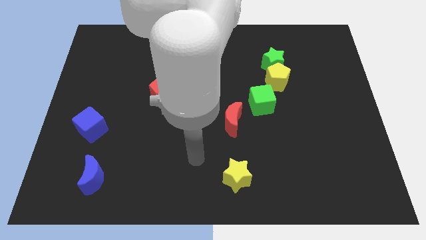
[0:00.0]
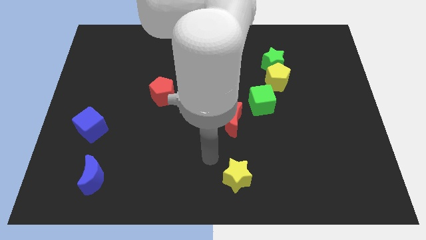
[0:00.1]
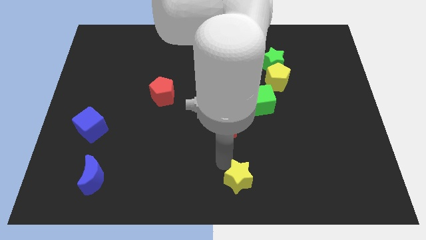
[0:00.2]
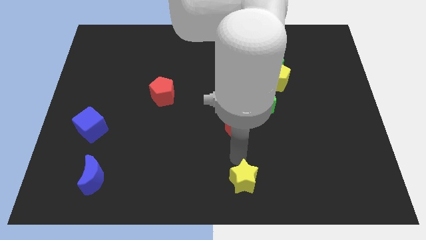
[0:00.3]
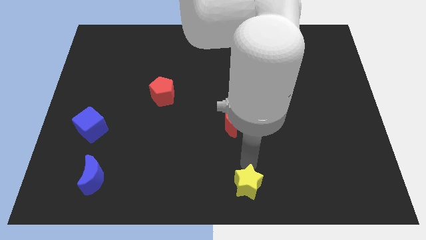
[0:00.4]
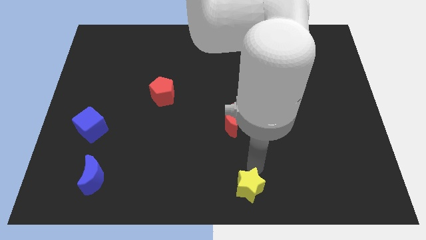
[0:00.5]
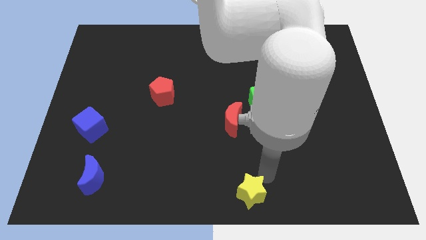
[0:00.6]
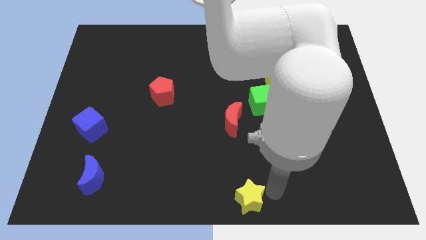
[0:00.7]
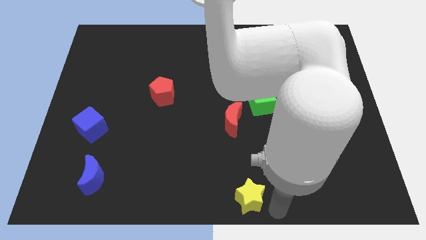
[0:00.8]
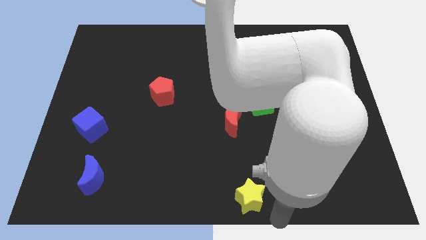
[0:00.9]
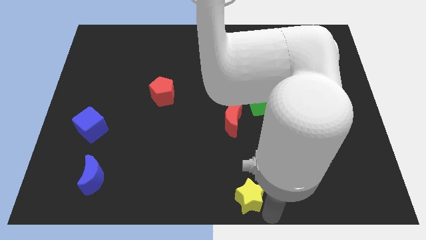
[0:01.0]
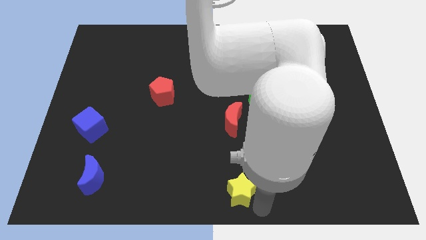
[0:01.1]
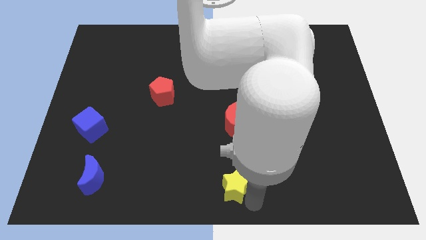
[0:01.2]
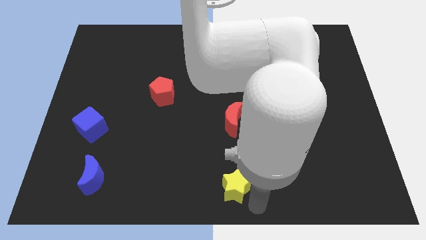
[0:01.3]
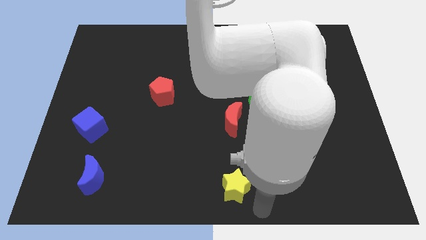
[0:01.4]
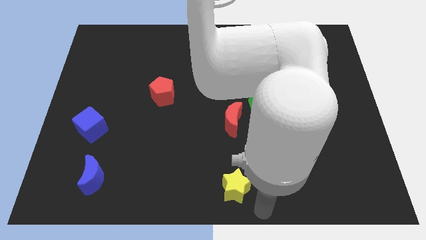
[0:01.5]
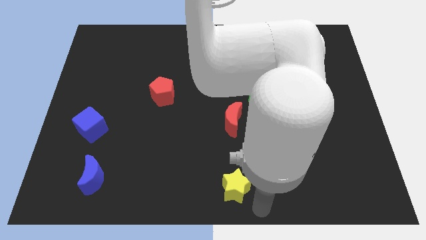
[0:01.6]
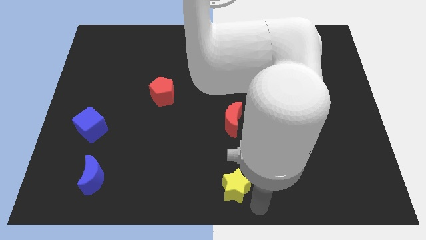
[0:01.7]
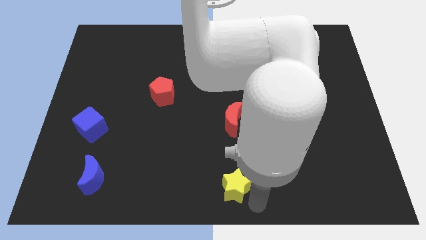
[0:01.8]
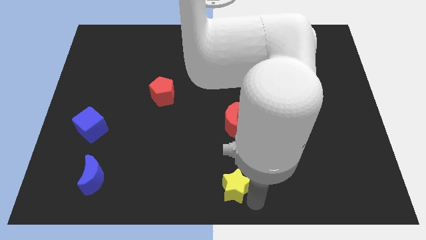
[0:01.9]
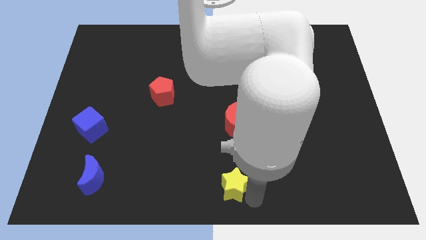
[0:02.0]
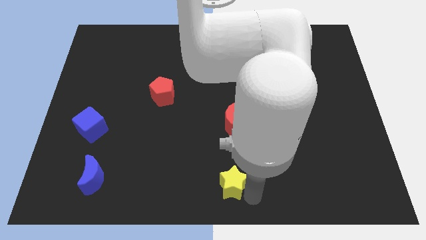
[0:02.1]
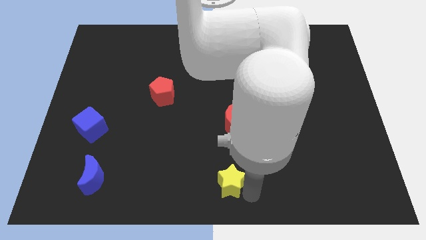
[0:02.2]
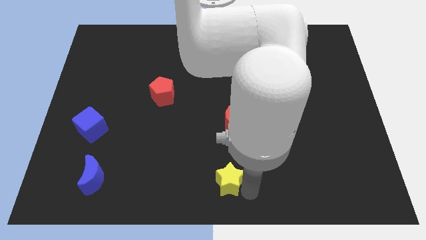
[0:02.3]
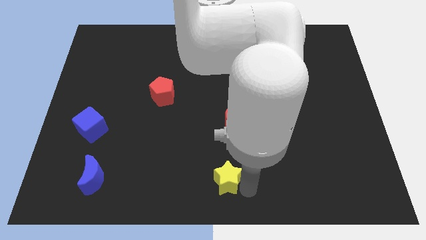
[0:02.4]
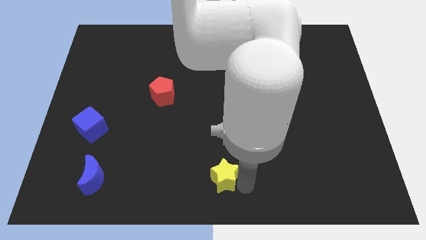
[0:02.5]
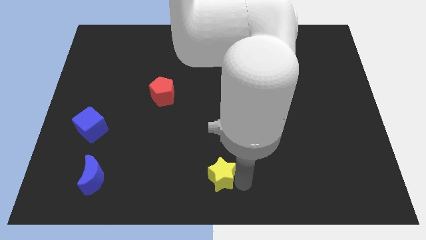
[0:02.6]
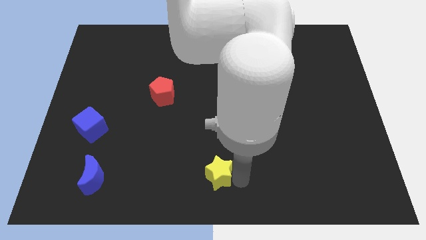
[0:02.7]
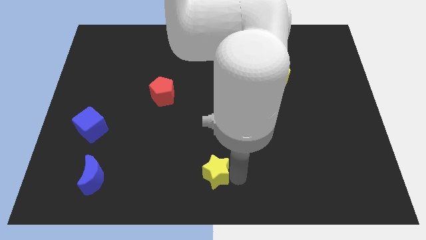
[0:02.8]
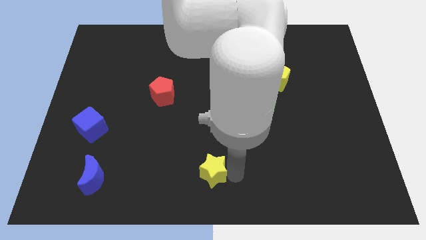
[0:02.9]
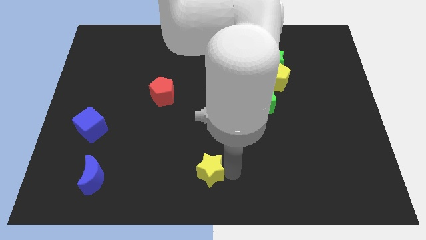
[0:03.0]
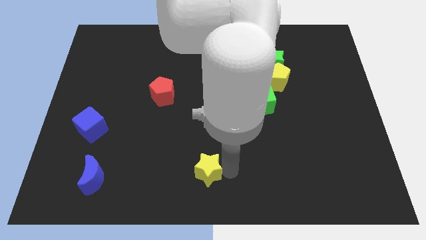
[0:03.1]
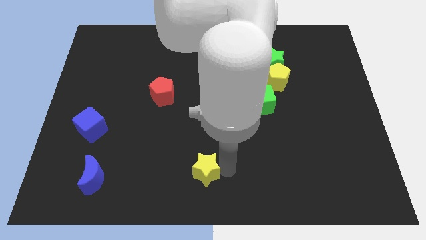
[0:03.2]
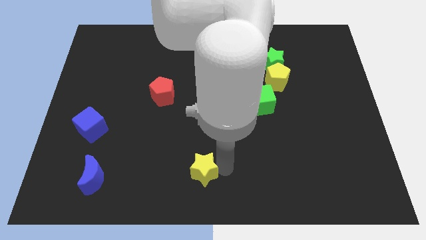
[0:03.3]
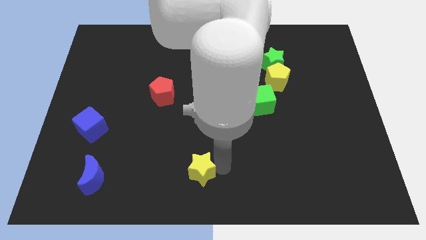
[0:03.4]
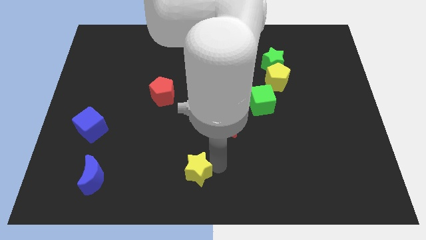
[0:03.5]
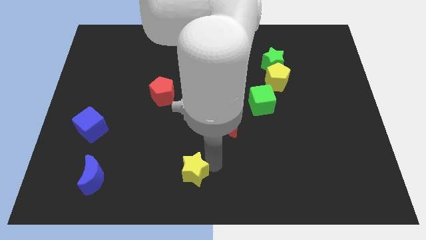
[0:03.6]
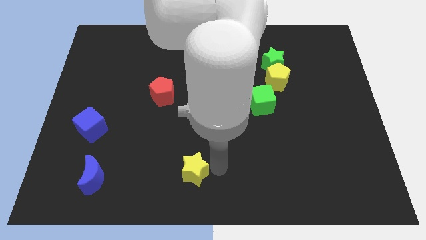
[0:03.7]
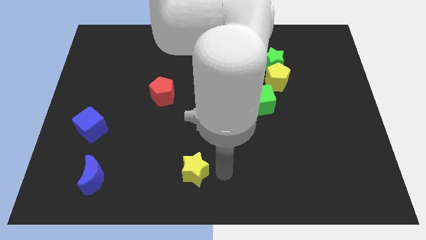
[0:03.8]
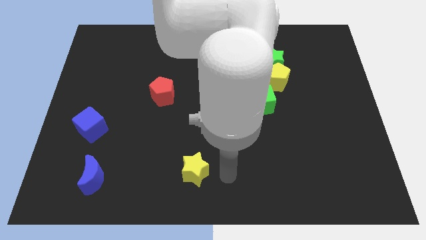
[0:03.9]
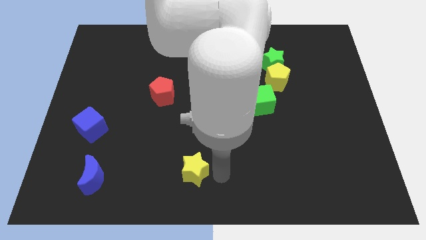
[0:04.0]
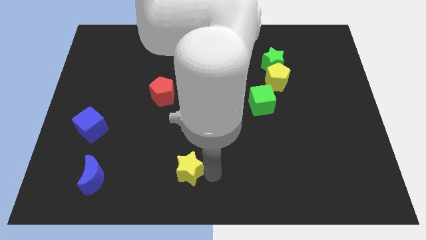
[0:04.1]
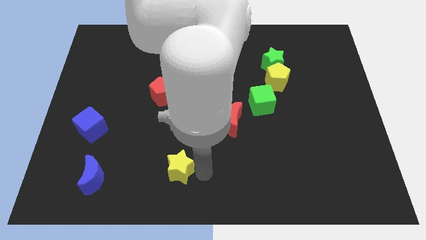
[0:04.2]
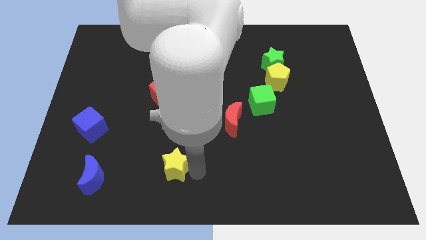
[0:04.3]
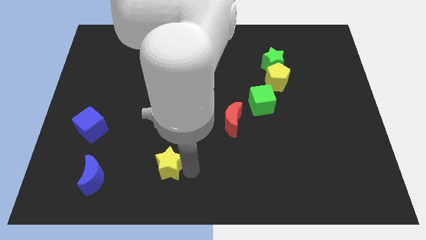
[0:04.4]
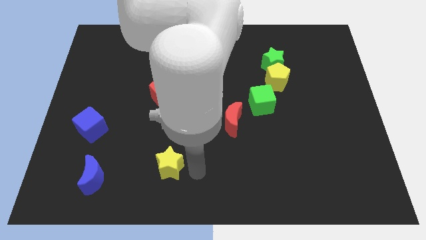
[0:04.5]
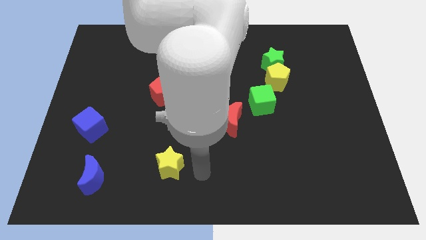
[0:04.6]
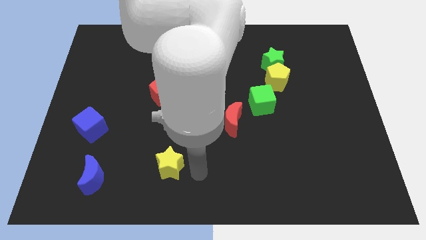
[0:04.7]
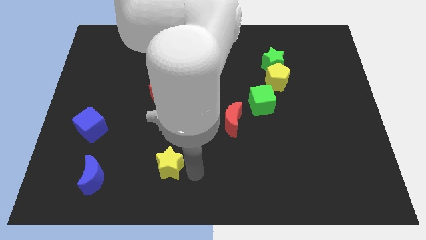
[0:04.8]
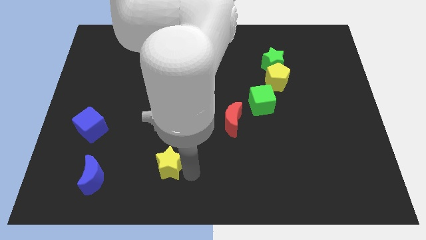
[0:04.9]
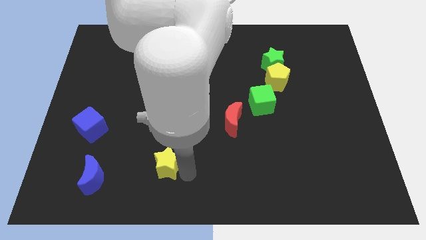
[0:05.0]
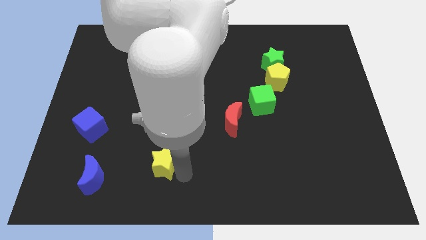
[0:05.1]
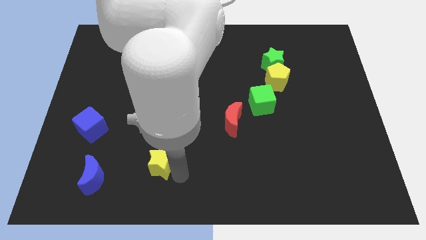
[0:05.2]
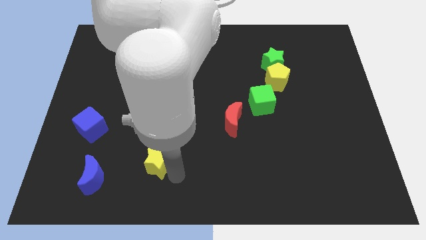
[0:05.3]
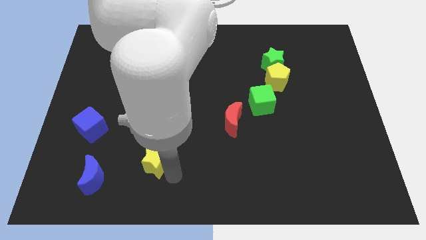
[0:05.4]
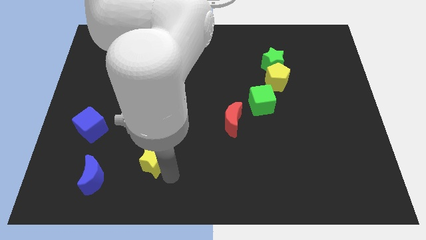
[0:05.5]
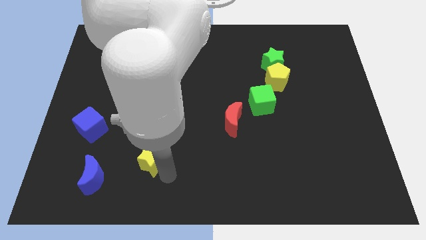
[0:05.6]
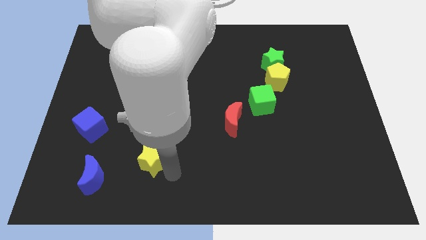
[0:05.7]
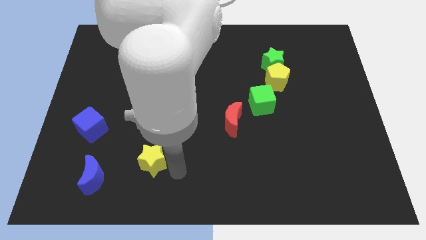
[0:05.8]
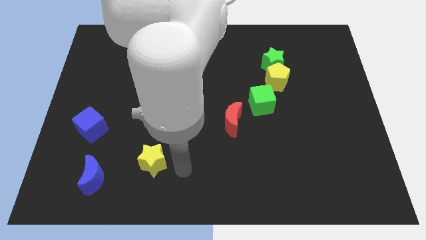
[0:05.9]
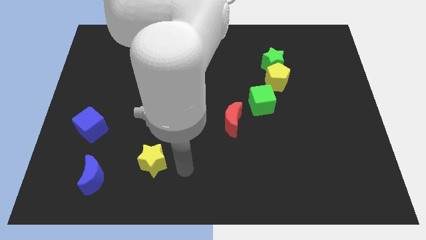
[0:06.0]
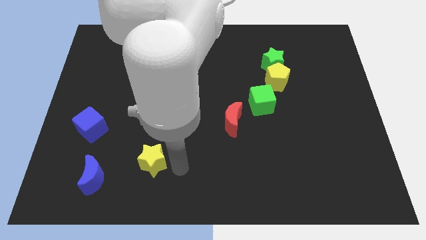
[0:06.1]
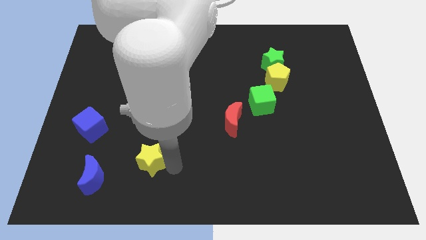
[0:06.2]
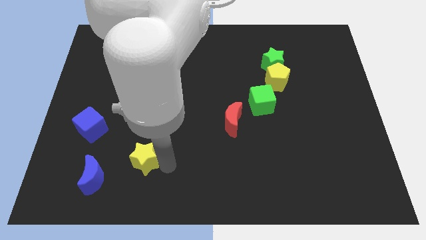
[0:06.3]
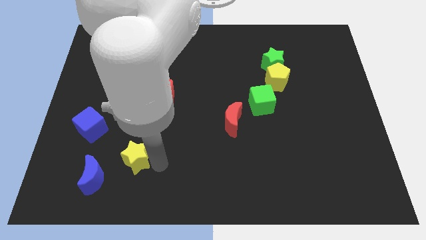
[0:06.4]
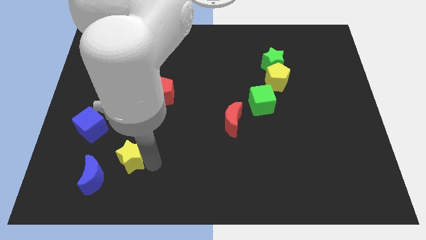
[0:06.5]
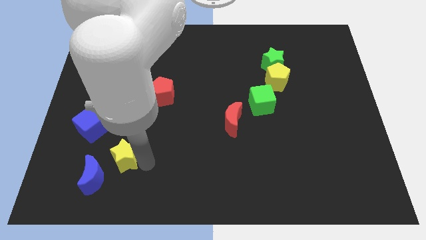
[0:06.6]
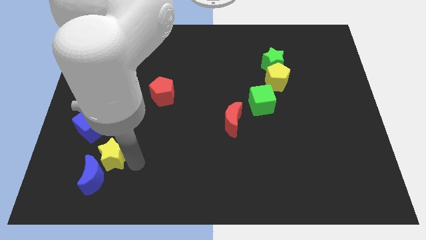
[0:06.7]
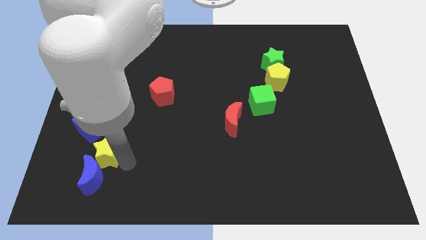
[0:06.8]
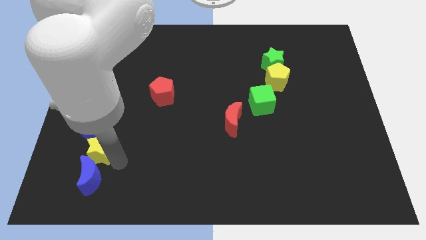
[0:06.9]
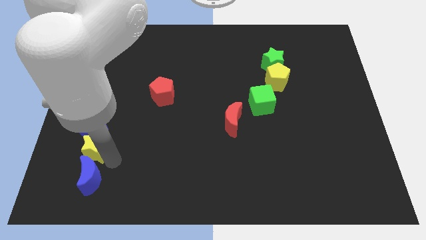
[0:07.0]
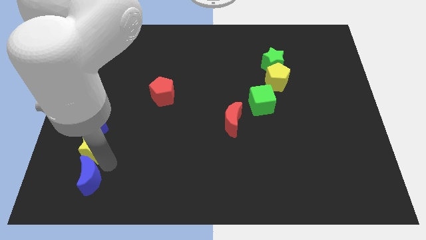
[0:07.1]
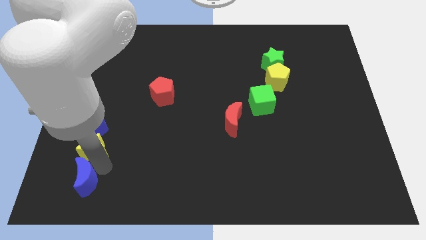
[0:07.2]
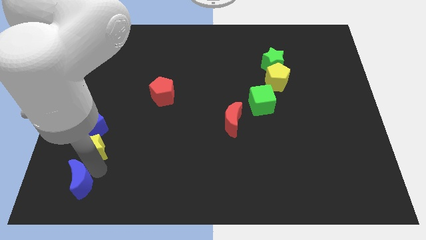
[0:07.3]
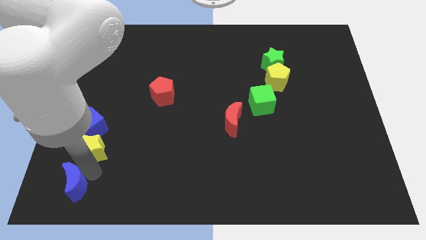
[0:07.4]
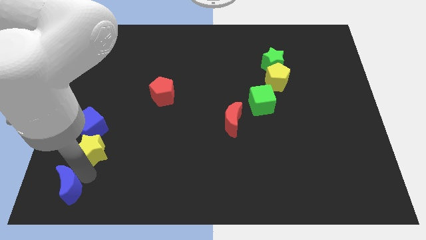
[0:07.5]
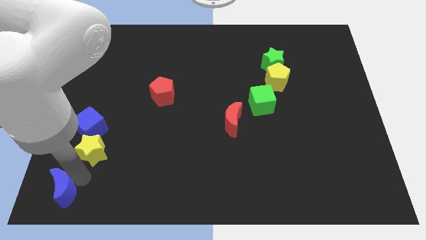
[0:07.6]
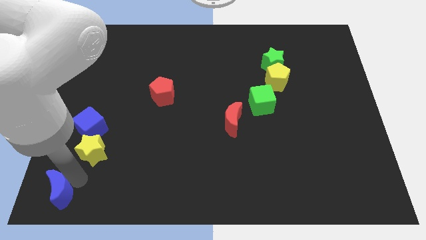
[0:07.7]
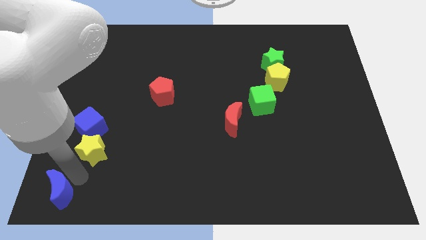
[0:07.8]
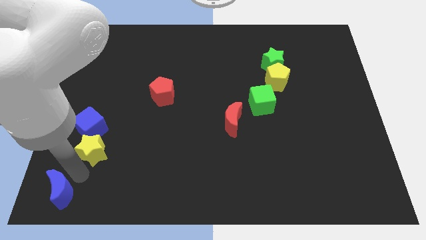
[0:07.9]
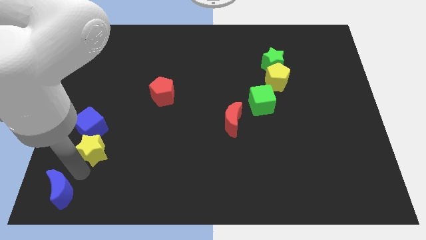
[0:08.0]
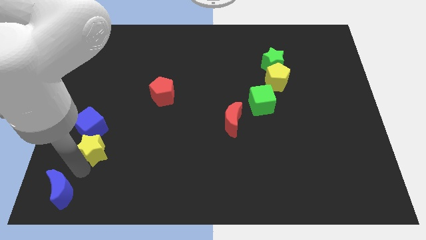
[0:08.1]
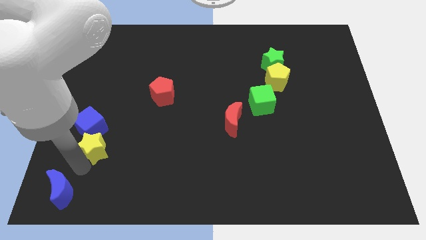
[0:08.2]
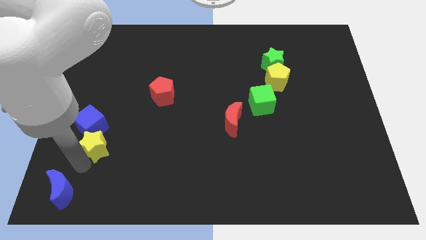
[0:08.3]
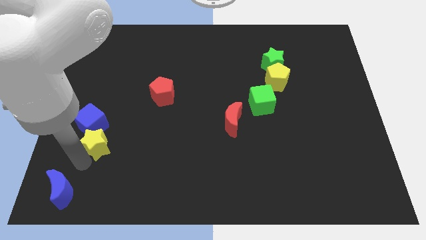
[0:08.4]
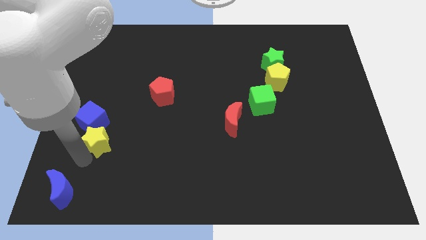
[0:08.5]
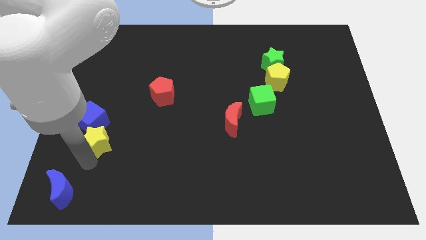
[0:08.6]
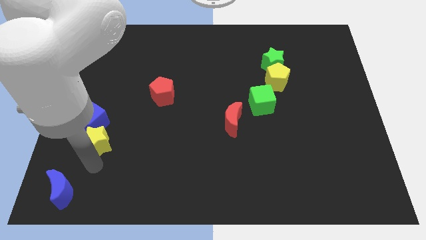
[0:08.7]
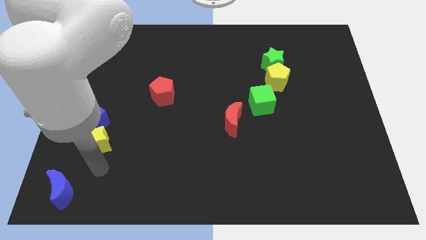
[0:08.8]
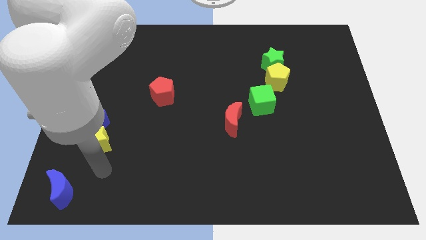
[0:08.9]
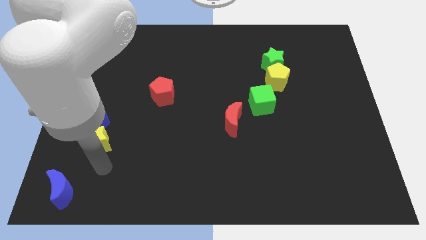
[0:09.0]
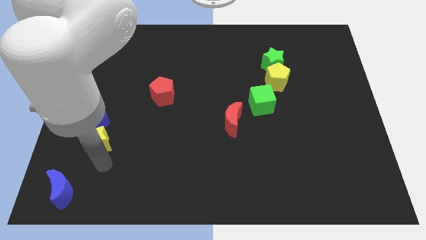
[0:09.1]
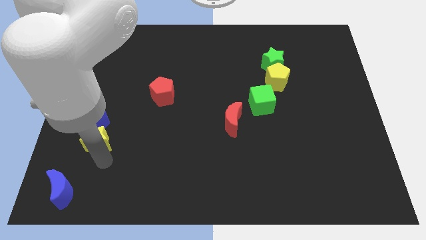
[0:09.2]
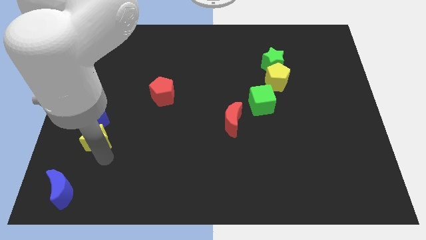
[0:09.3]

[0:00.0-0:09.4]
put the yellow star next to the blue cube
